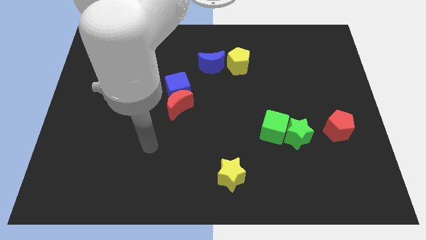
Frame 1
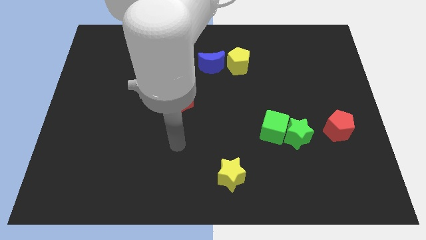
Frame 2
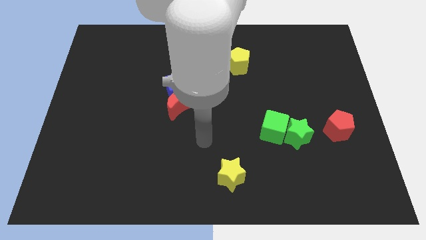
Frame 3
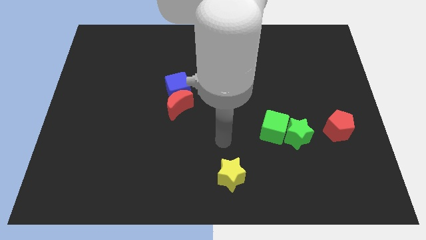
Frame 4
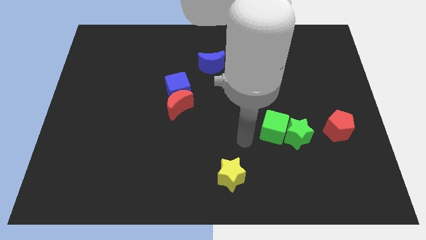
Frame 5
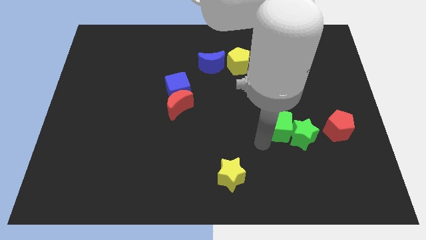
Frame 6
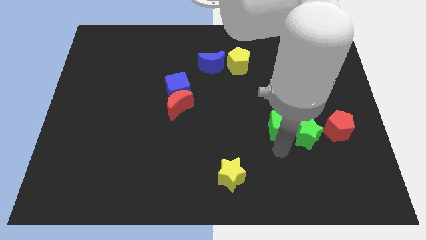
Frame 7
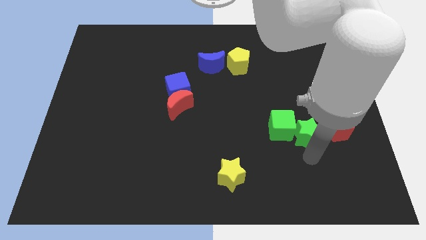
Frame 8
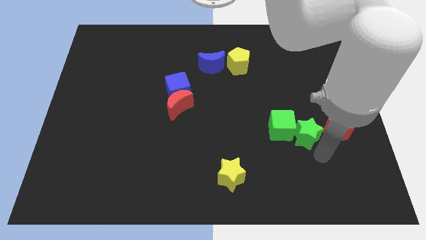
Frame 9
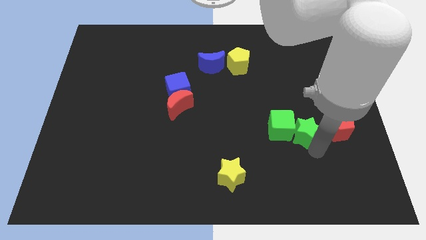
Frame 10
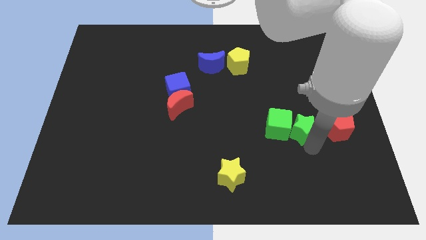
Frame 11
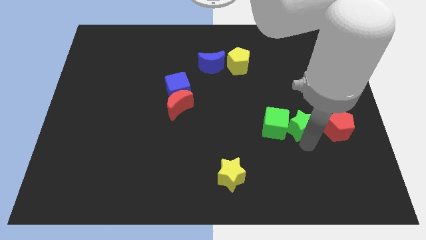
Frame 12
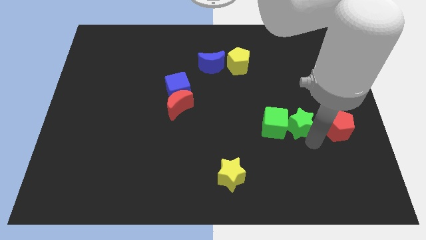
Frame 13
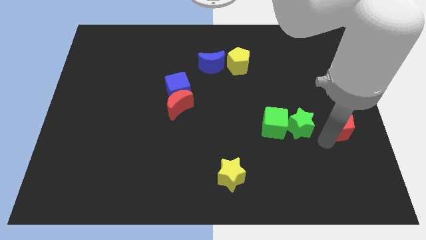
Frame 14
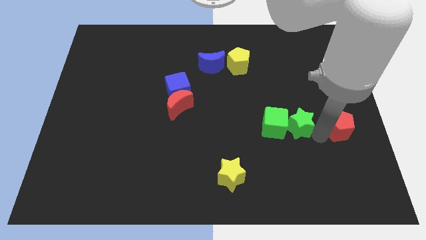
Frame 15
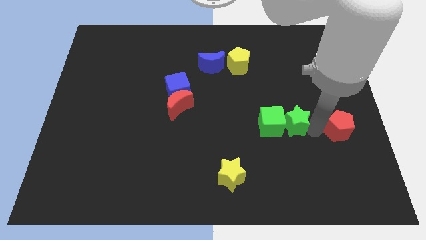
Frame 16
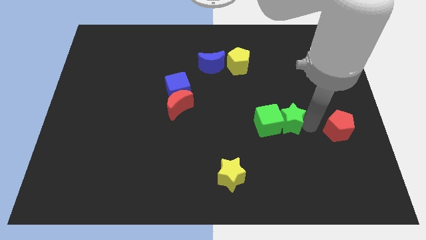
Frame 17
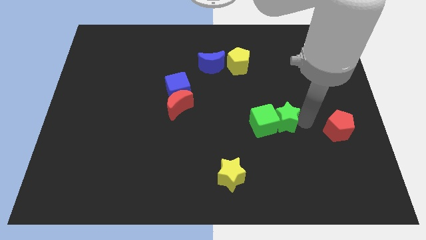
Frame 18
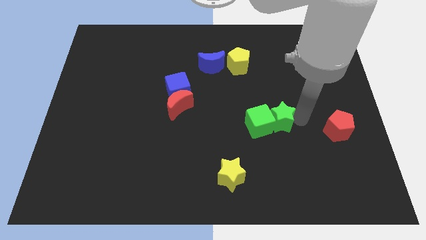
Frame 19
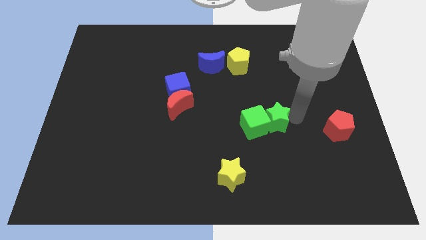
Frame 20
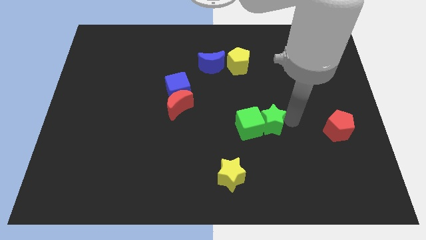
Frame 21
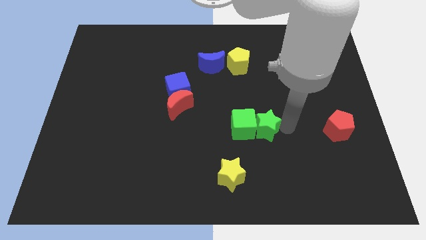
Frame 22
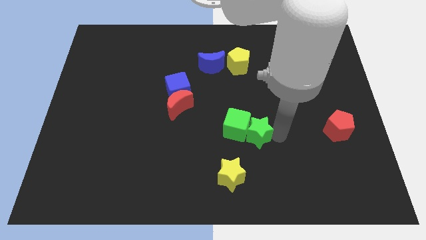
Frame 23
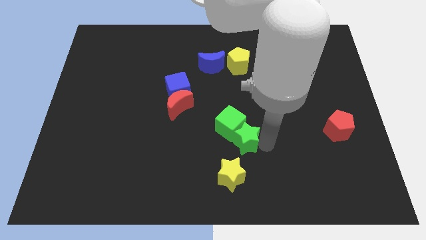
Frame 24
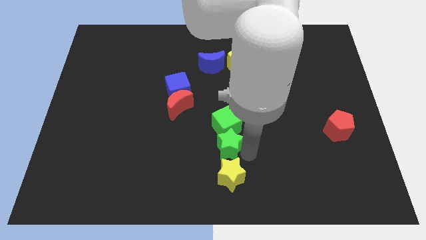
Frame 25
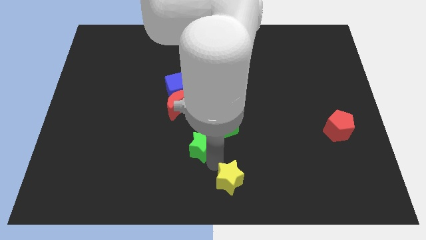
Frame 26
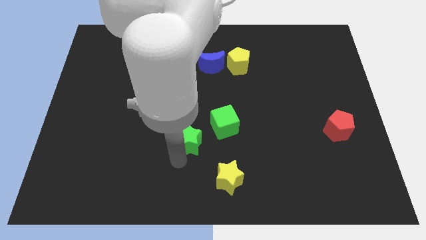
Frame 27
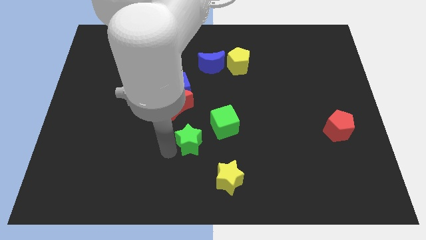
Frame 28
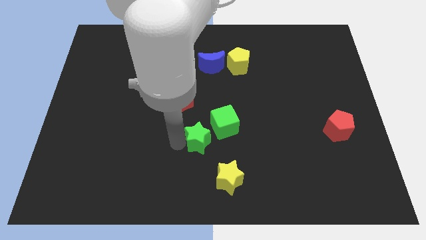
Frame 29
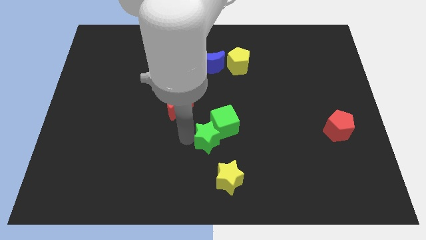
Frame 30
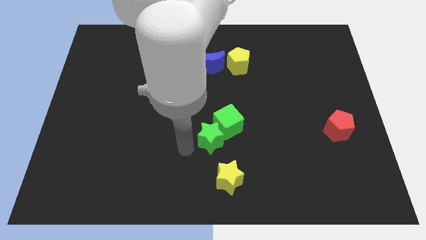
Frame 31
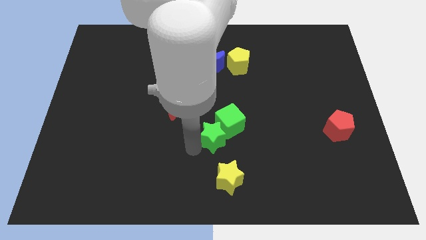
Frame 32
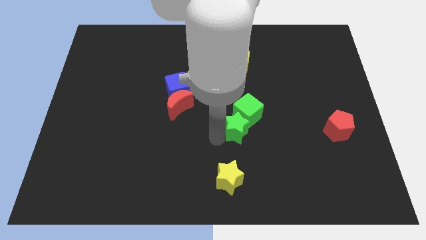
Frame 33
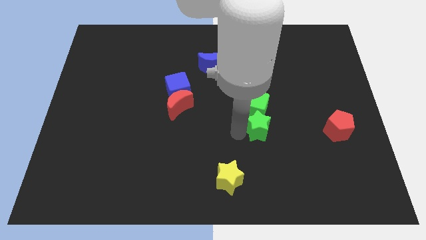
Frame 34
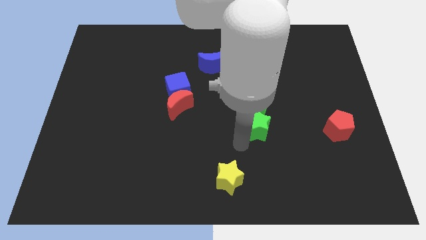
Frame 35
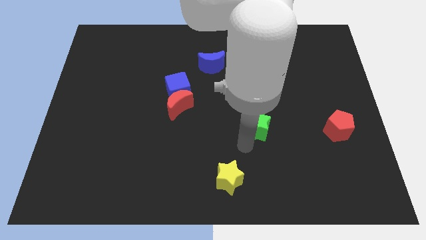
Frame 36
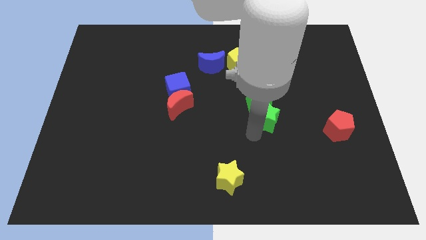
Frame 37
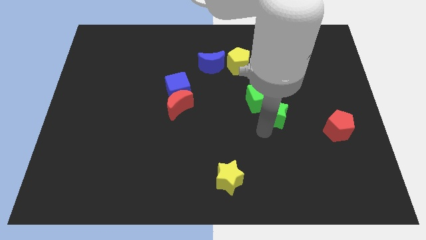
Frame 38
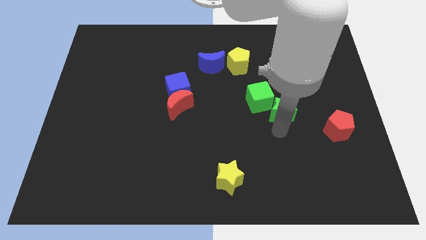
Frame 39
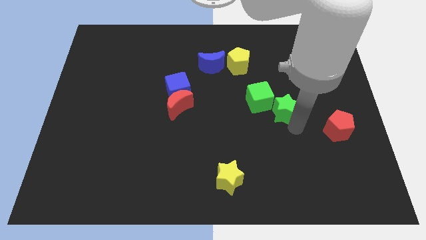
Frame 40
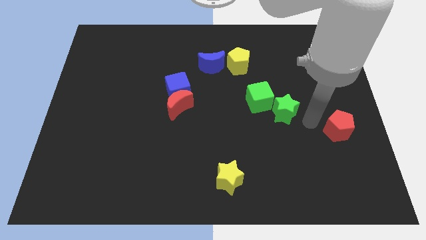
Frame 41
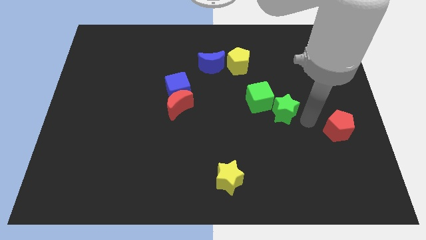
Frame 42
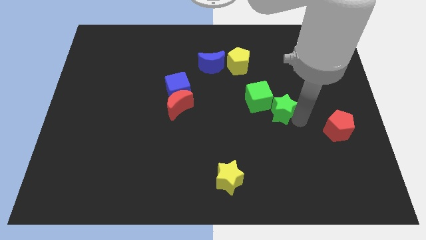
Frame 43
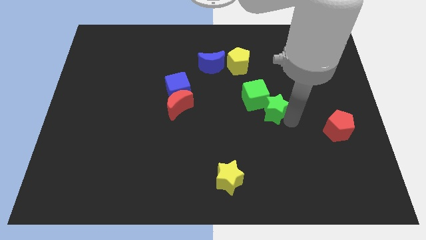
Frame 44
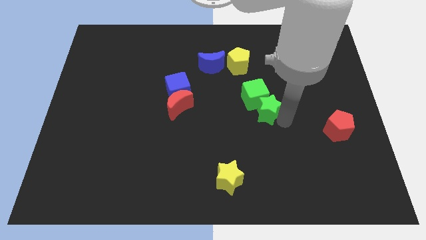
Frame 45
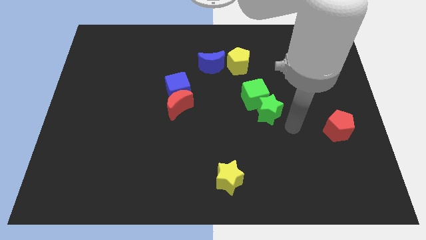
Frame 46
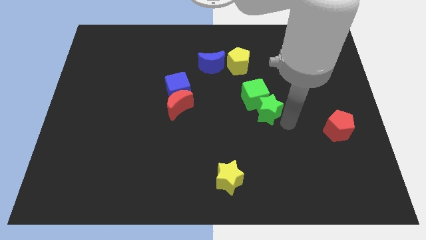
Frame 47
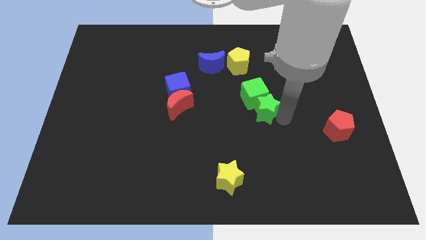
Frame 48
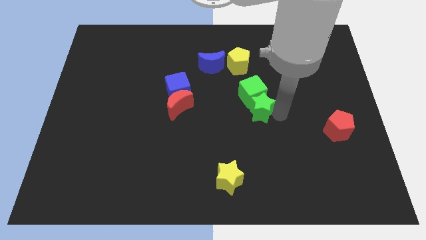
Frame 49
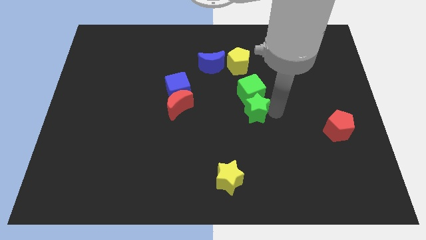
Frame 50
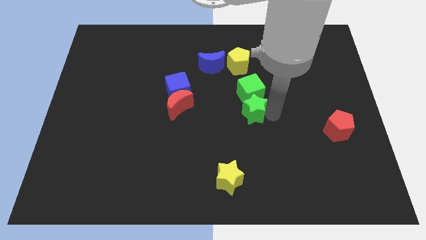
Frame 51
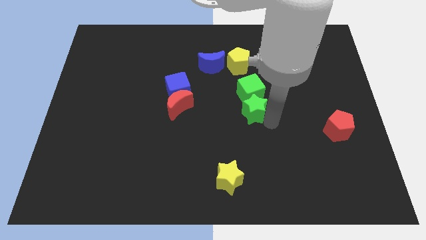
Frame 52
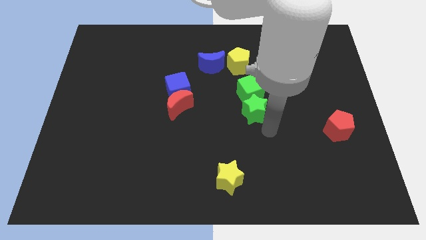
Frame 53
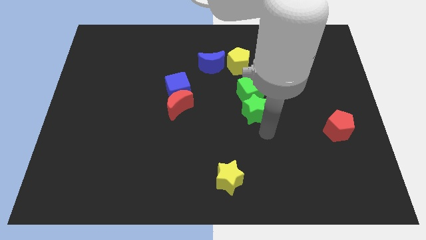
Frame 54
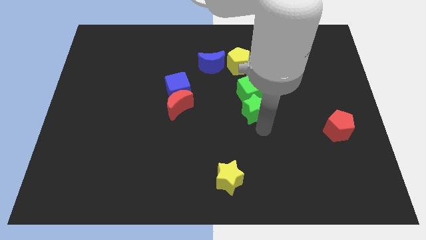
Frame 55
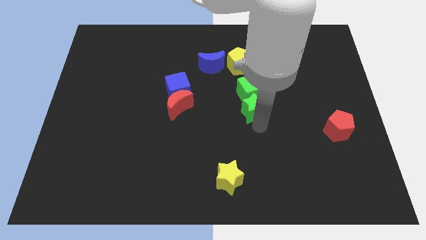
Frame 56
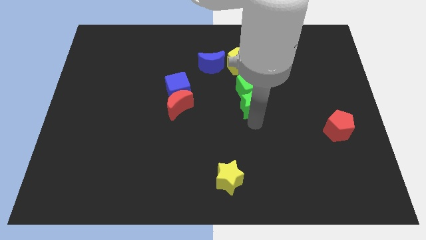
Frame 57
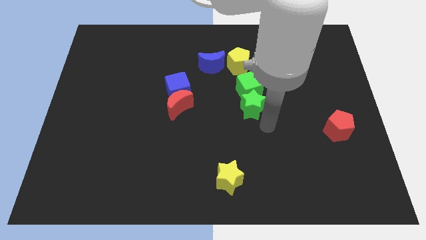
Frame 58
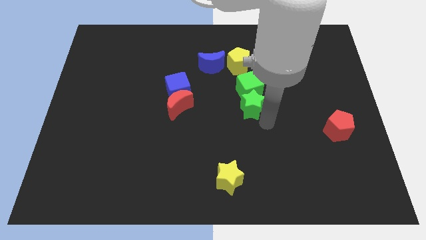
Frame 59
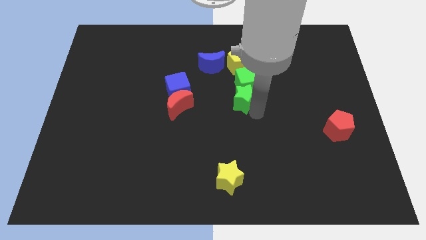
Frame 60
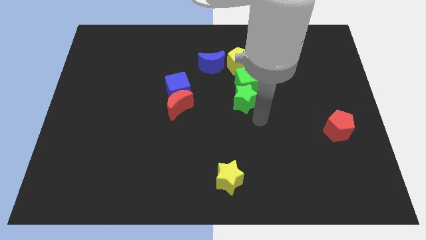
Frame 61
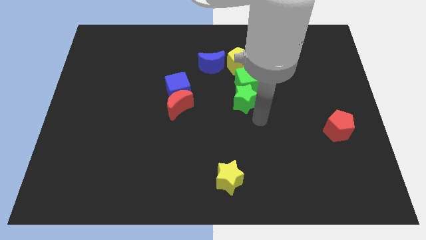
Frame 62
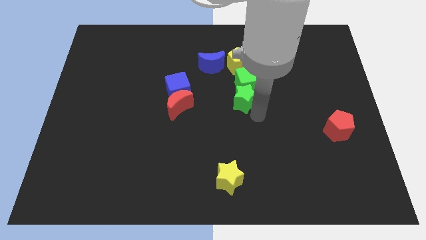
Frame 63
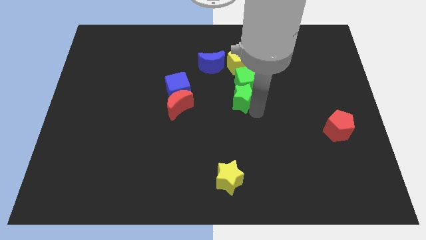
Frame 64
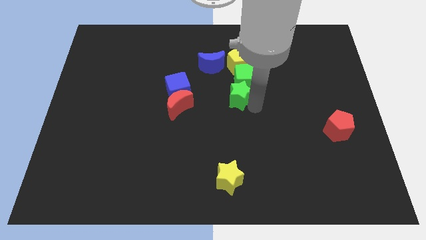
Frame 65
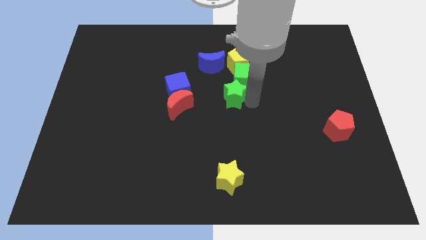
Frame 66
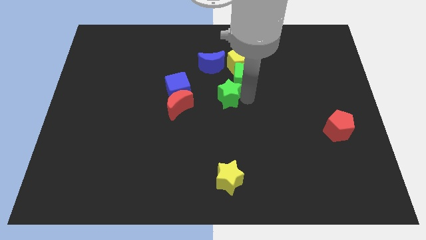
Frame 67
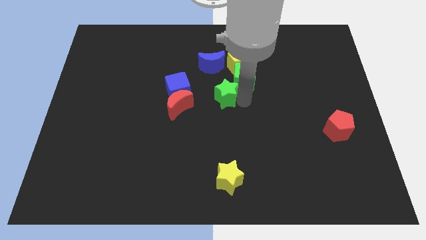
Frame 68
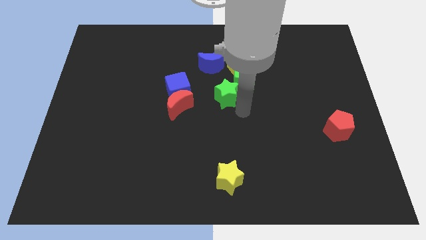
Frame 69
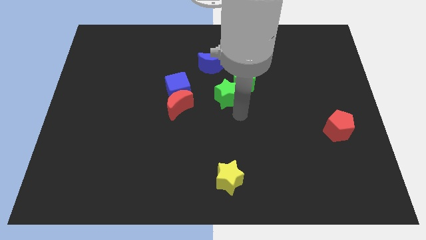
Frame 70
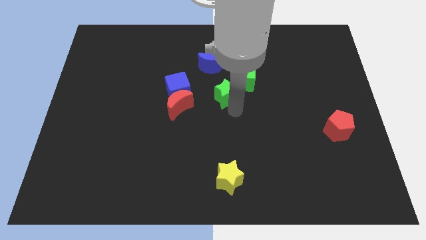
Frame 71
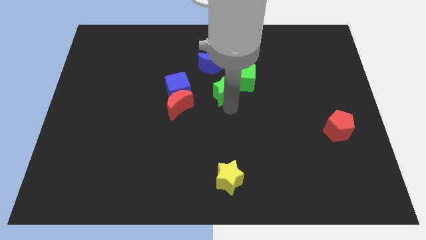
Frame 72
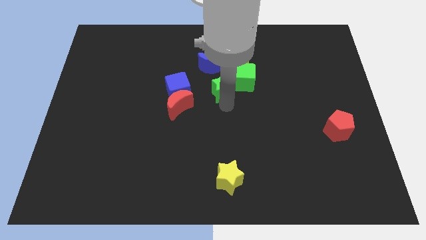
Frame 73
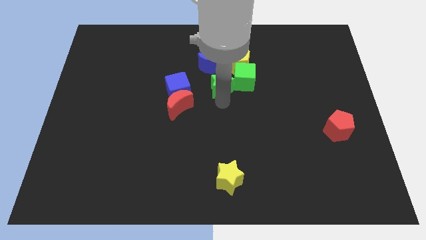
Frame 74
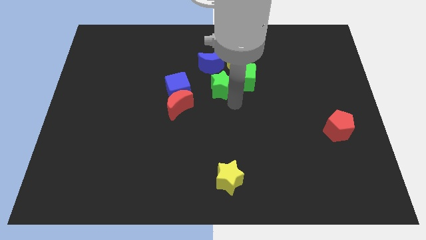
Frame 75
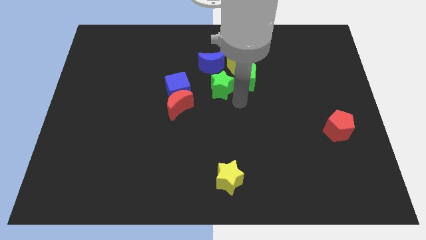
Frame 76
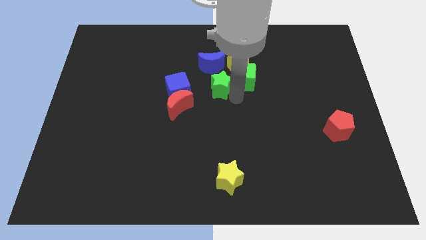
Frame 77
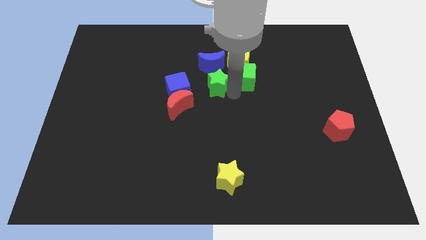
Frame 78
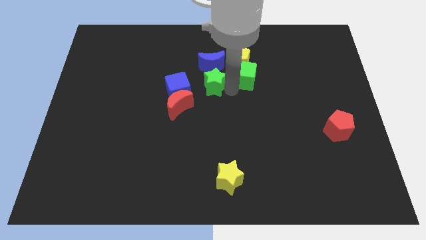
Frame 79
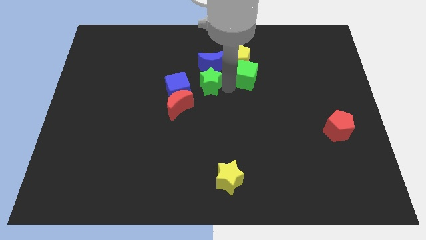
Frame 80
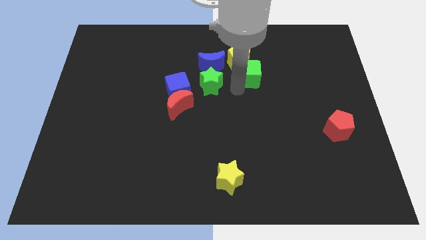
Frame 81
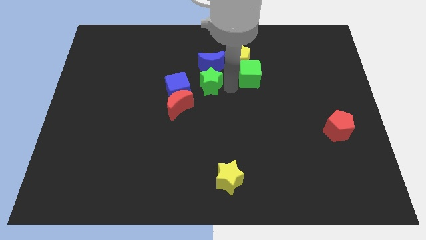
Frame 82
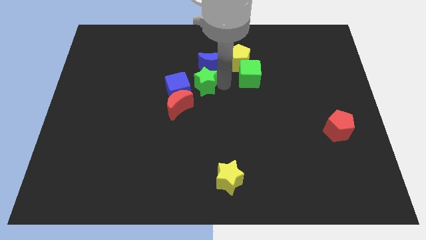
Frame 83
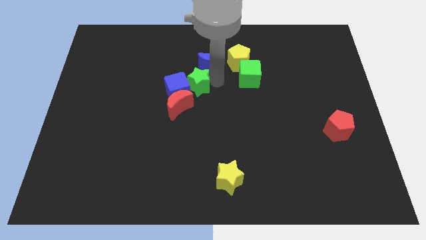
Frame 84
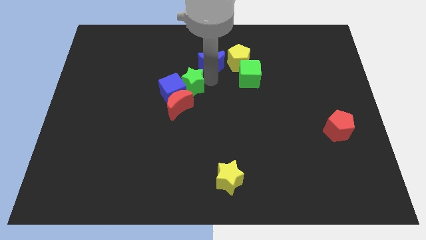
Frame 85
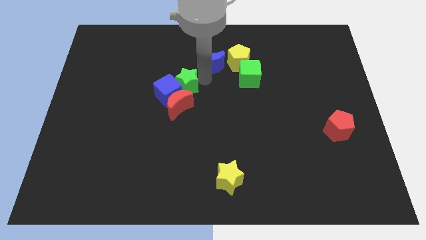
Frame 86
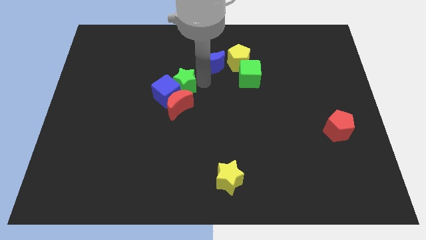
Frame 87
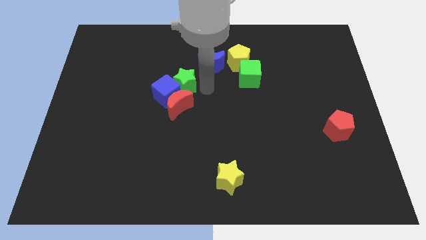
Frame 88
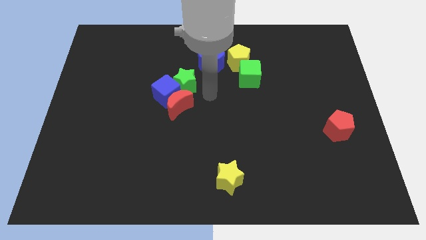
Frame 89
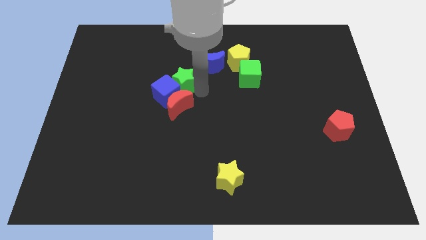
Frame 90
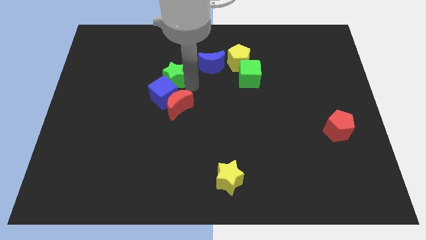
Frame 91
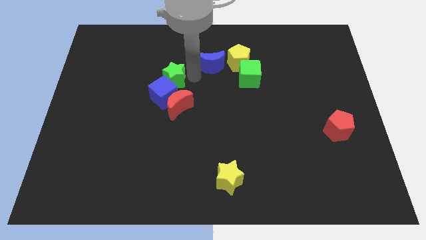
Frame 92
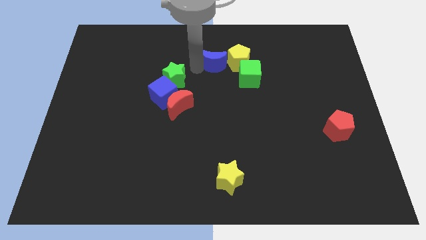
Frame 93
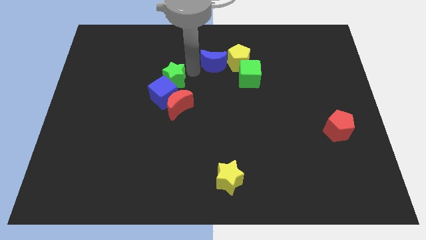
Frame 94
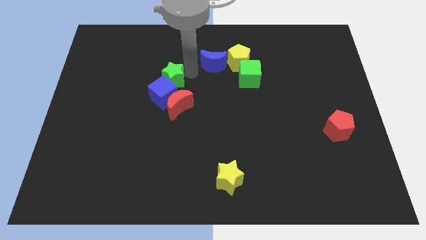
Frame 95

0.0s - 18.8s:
move the green star diagonally up and to the left of the red moon
